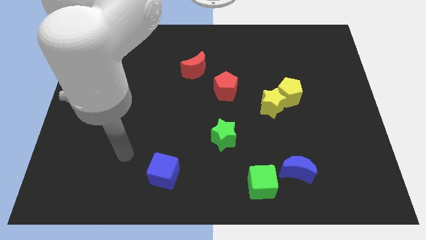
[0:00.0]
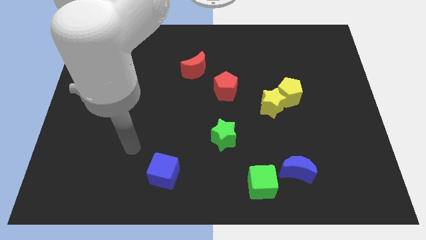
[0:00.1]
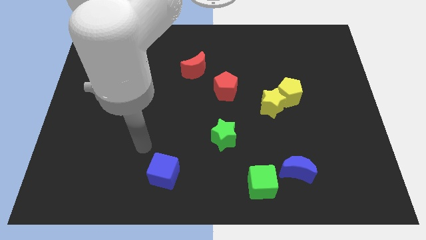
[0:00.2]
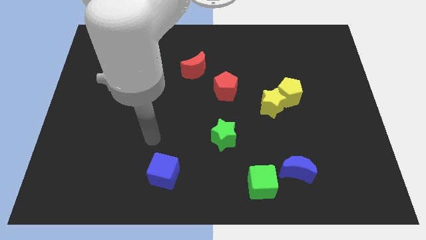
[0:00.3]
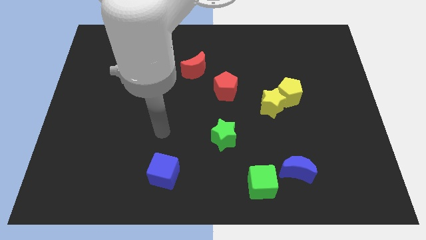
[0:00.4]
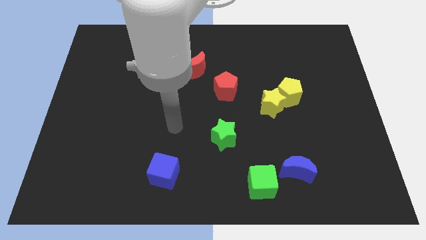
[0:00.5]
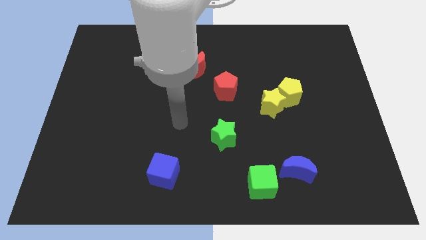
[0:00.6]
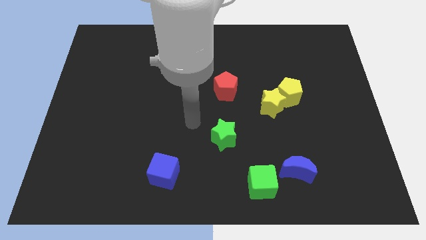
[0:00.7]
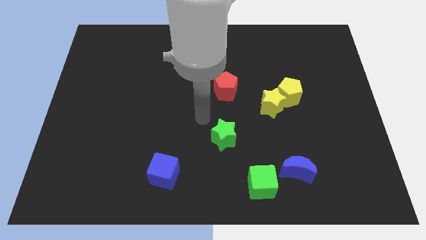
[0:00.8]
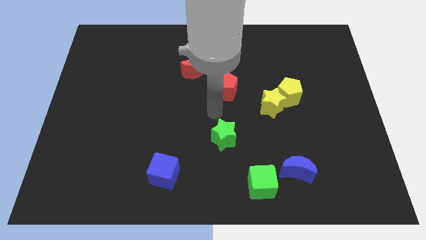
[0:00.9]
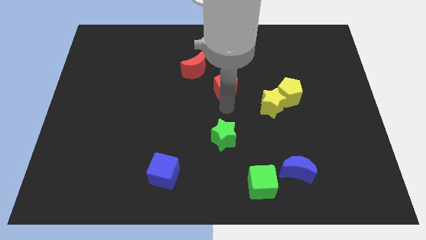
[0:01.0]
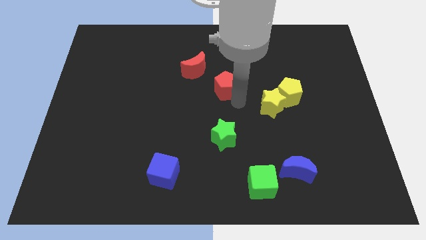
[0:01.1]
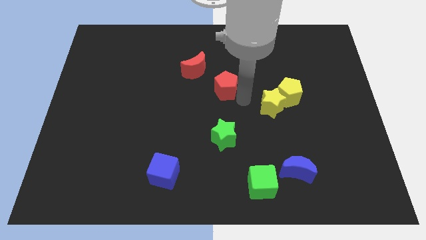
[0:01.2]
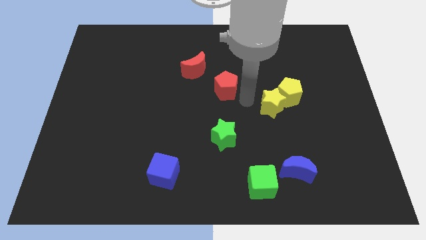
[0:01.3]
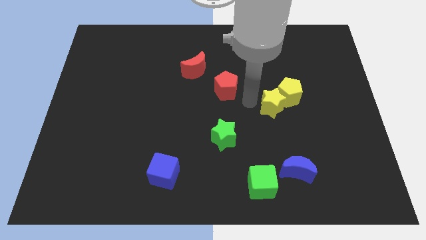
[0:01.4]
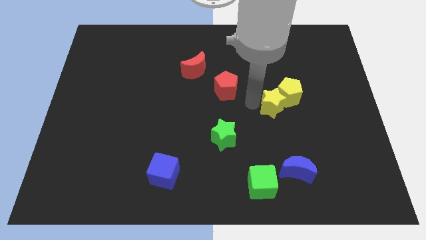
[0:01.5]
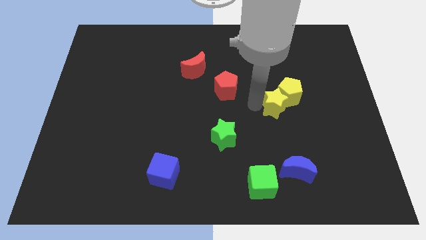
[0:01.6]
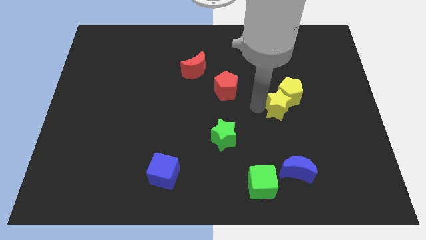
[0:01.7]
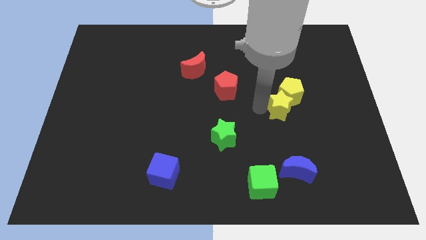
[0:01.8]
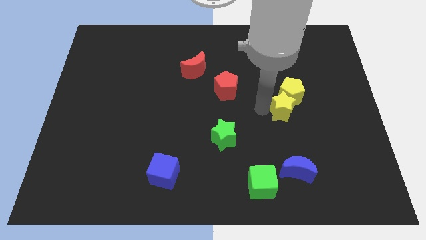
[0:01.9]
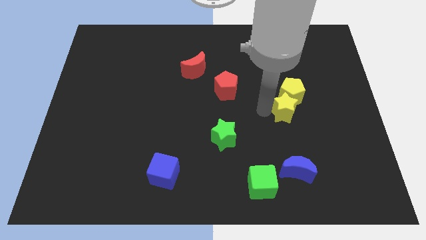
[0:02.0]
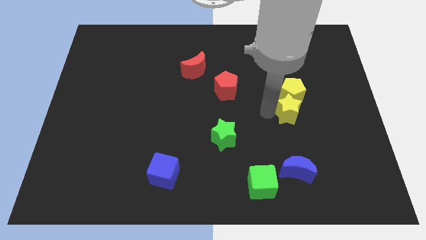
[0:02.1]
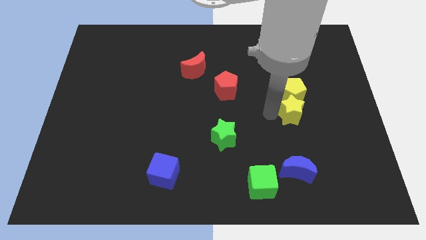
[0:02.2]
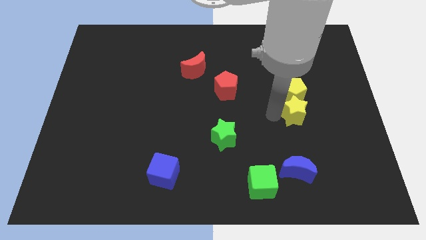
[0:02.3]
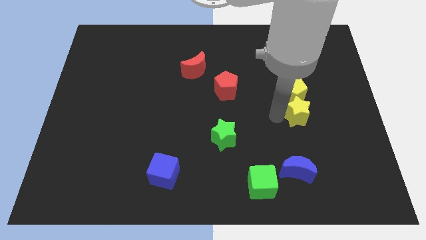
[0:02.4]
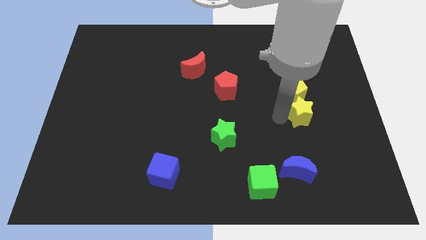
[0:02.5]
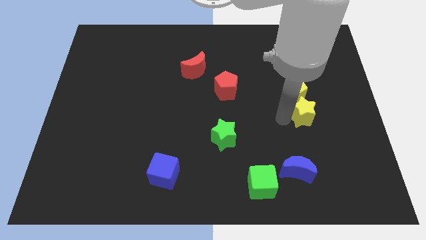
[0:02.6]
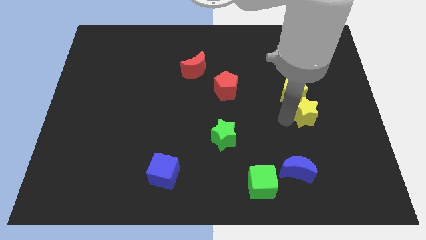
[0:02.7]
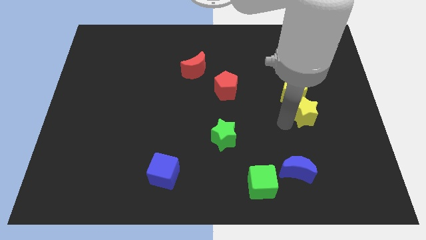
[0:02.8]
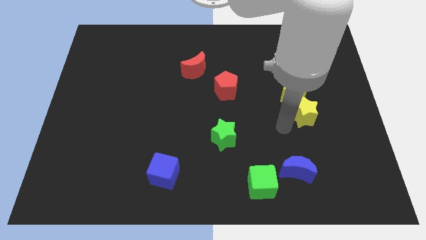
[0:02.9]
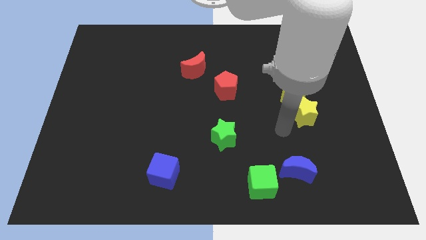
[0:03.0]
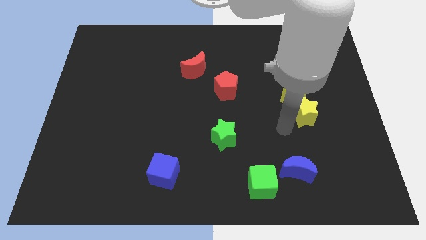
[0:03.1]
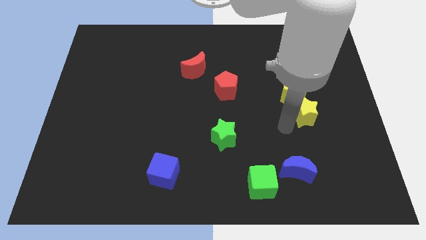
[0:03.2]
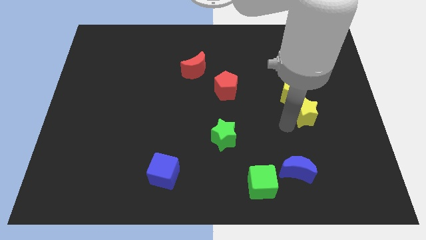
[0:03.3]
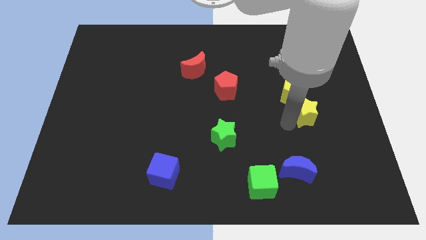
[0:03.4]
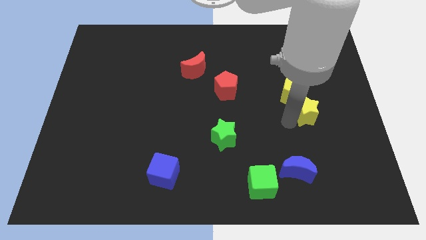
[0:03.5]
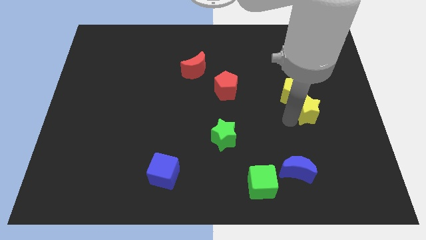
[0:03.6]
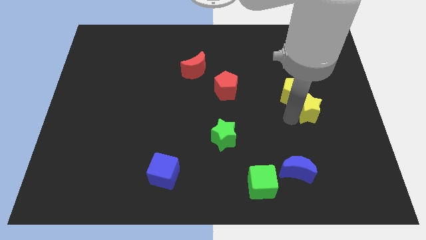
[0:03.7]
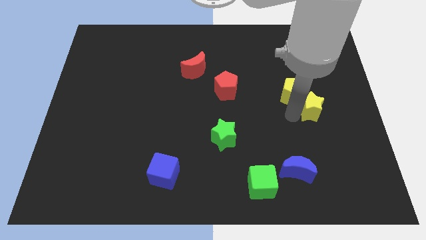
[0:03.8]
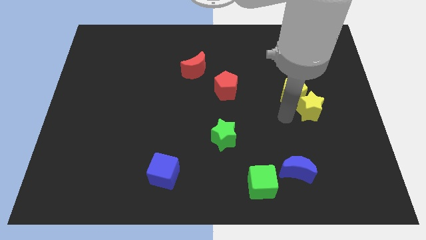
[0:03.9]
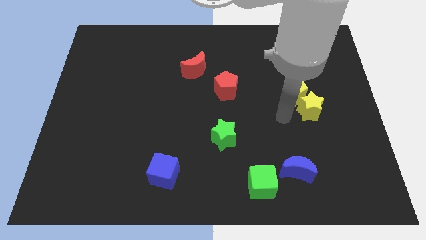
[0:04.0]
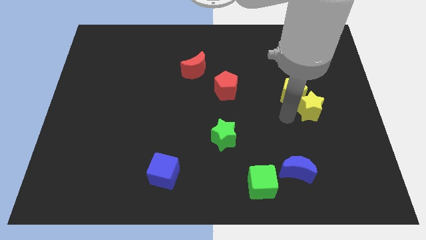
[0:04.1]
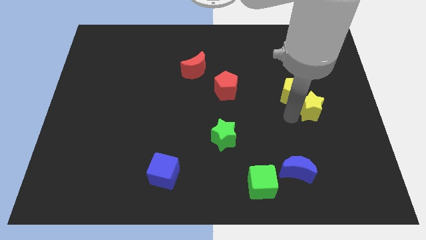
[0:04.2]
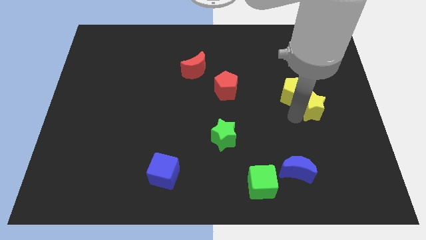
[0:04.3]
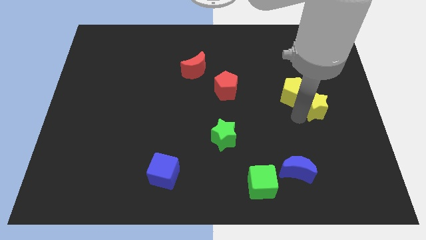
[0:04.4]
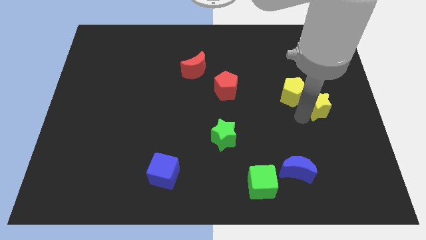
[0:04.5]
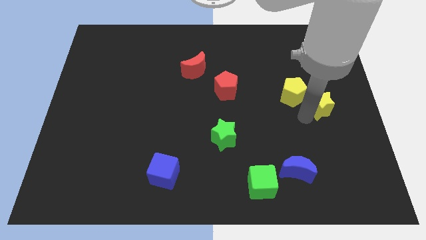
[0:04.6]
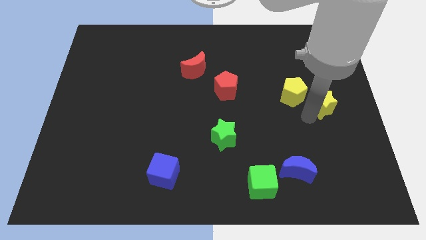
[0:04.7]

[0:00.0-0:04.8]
move the yellow star to the right side of the board

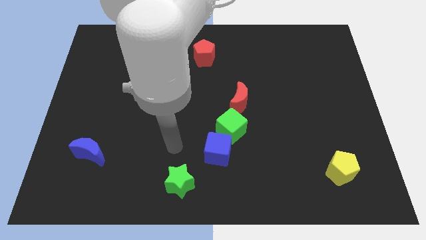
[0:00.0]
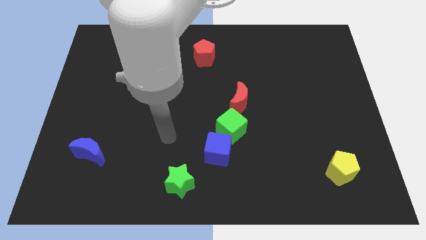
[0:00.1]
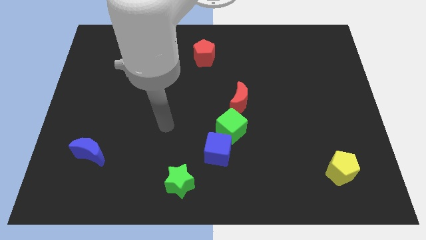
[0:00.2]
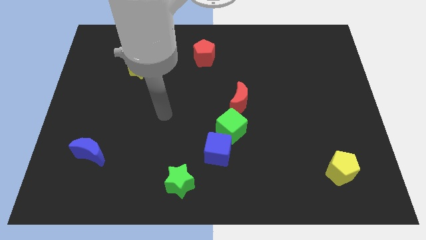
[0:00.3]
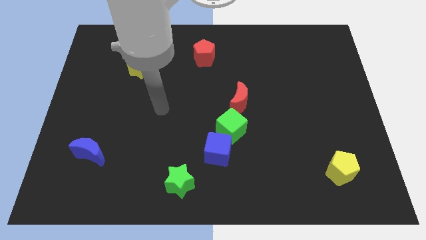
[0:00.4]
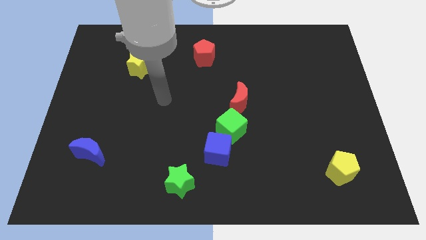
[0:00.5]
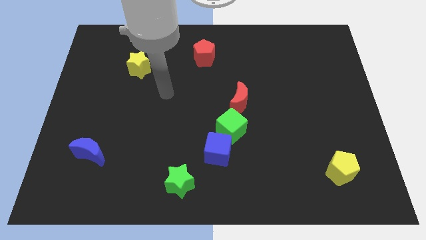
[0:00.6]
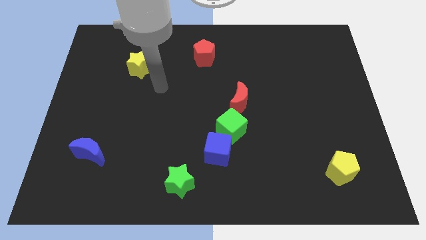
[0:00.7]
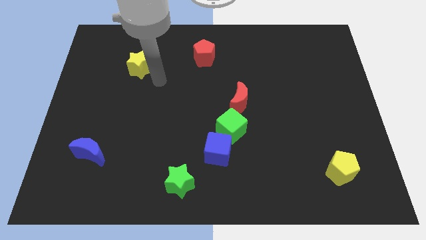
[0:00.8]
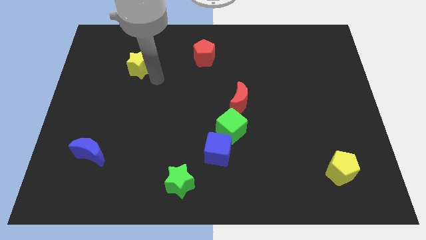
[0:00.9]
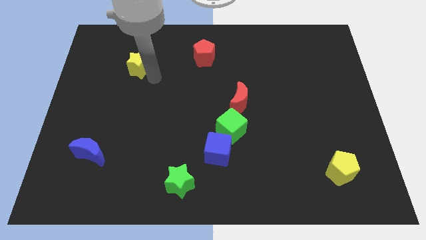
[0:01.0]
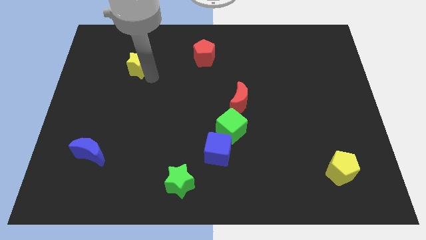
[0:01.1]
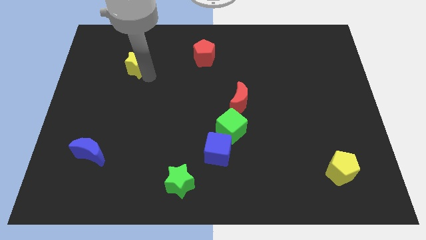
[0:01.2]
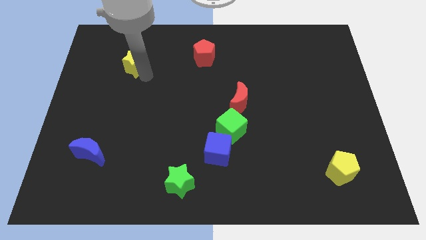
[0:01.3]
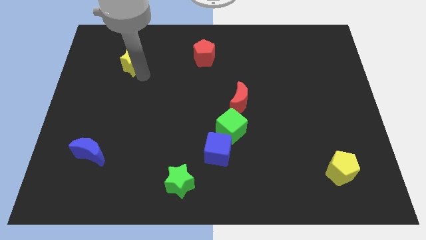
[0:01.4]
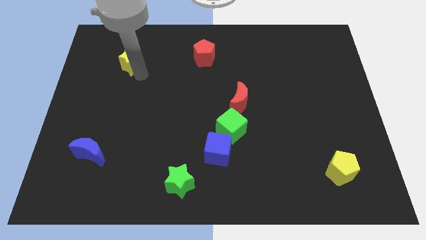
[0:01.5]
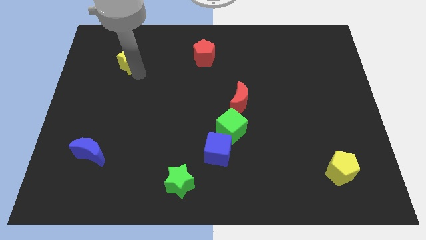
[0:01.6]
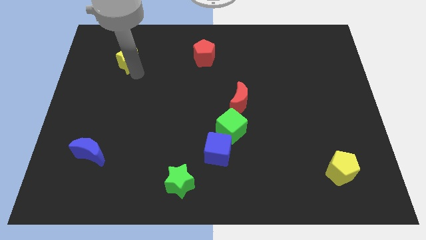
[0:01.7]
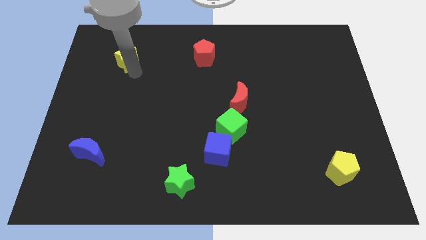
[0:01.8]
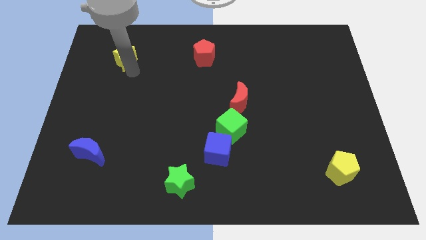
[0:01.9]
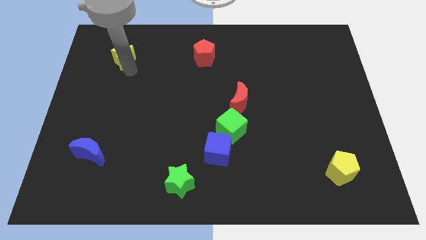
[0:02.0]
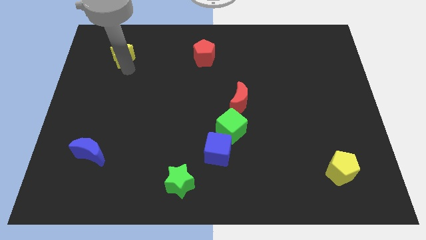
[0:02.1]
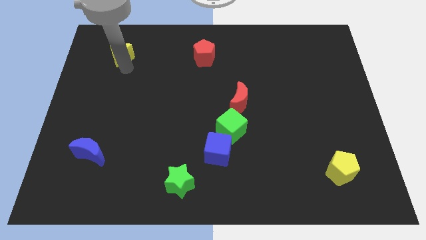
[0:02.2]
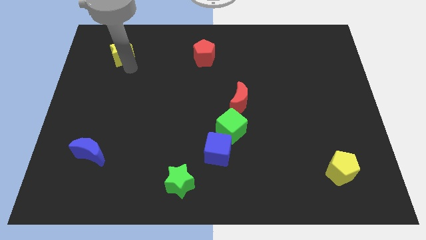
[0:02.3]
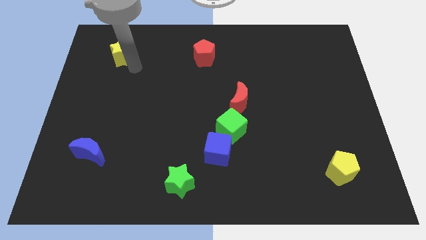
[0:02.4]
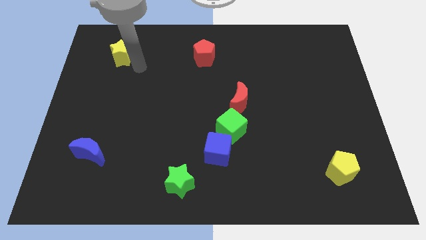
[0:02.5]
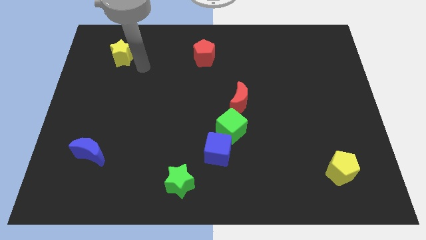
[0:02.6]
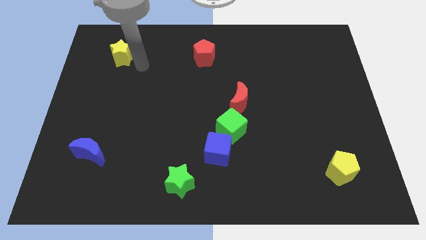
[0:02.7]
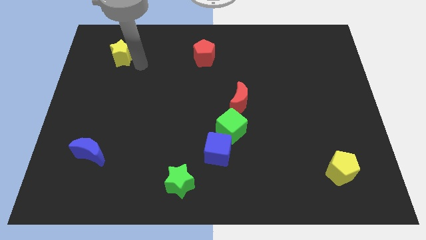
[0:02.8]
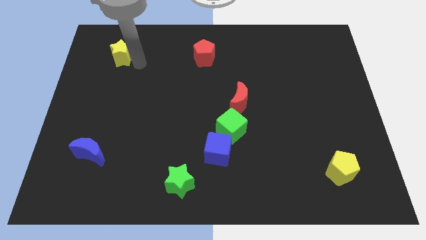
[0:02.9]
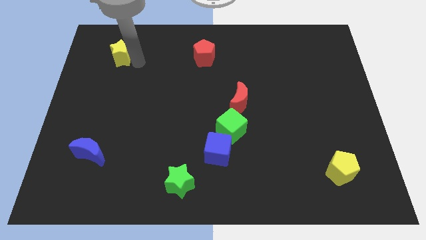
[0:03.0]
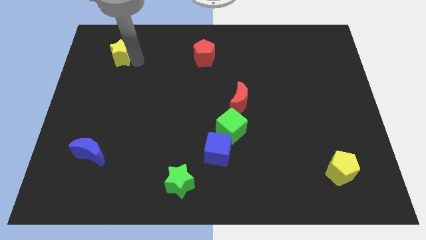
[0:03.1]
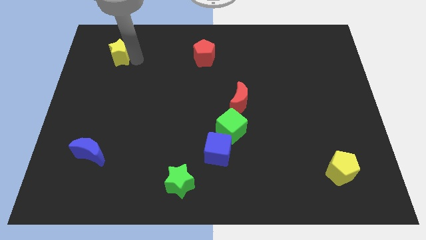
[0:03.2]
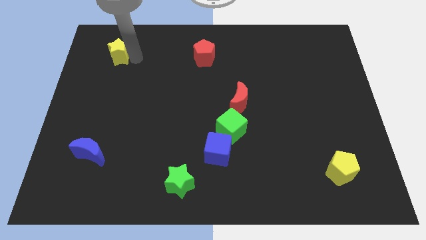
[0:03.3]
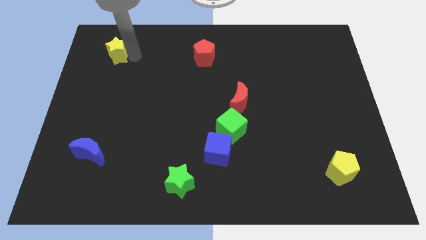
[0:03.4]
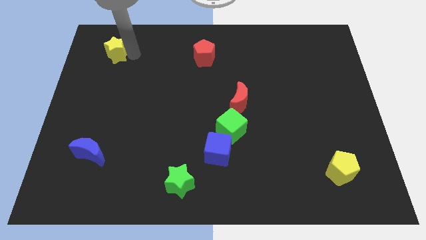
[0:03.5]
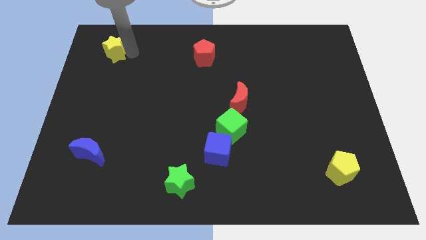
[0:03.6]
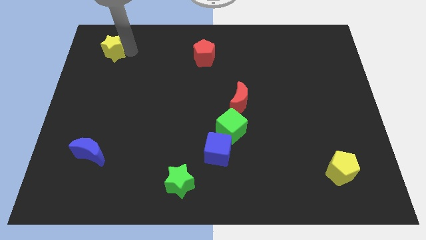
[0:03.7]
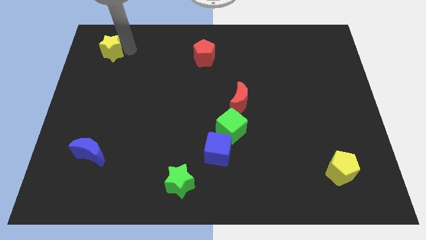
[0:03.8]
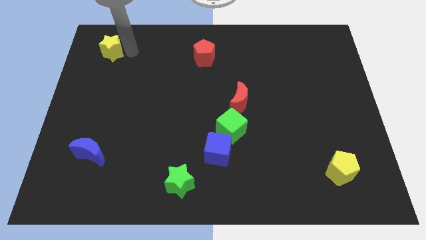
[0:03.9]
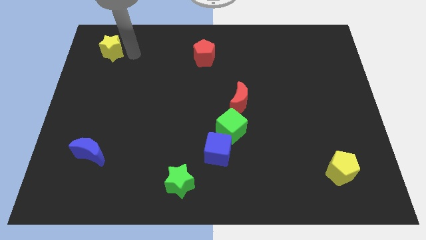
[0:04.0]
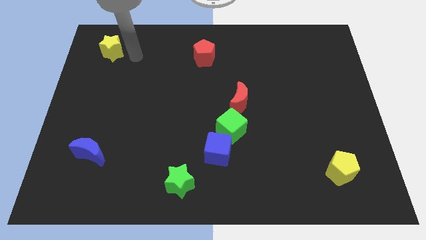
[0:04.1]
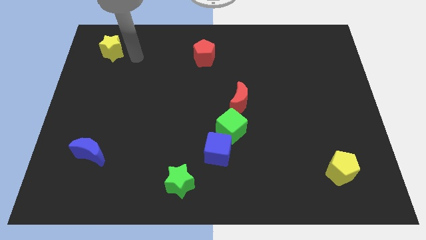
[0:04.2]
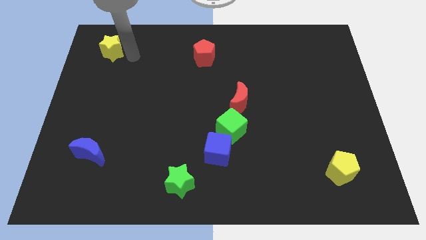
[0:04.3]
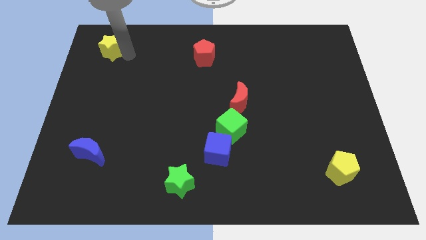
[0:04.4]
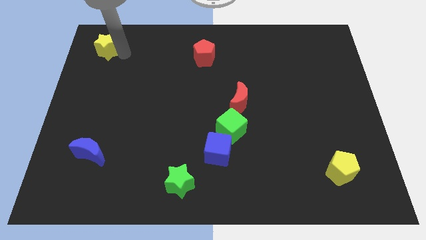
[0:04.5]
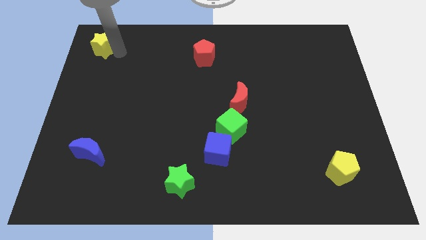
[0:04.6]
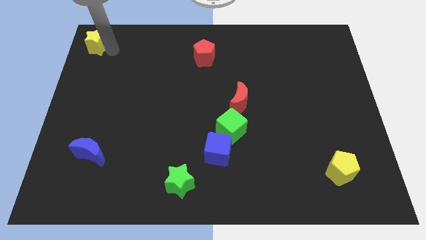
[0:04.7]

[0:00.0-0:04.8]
slide the yellow star to the upper left corner
